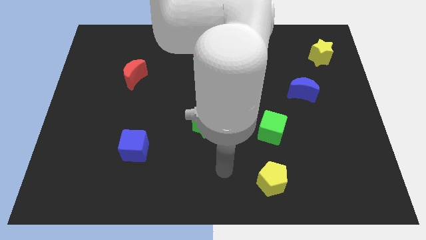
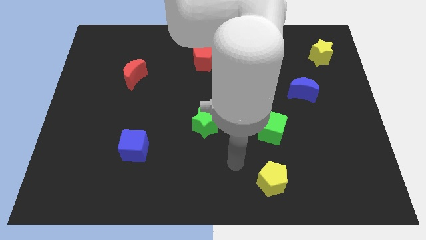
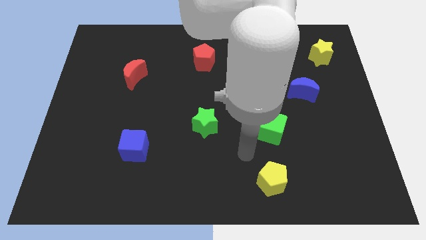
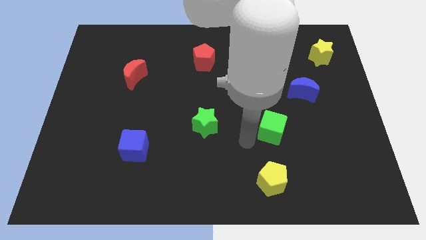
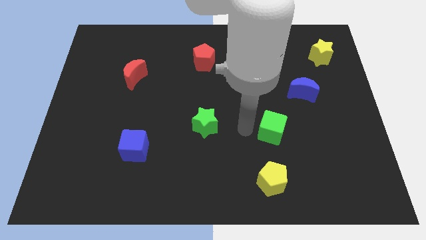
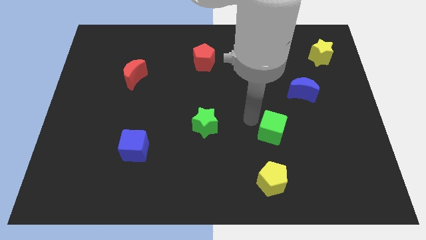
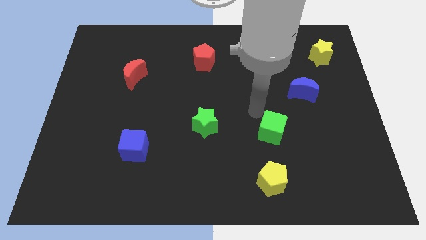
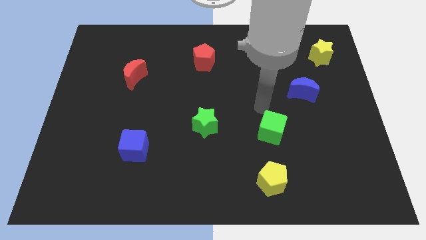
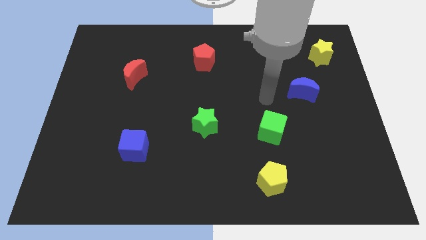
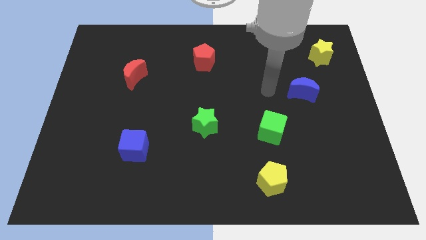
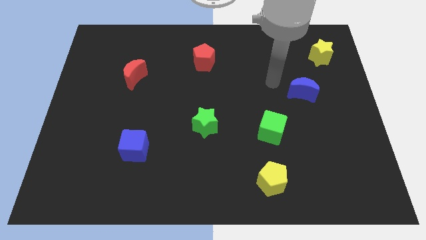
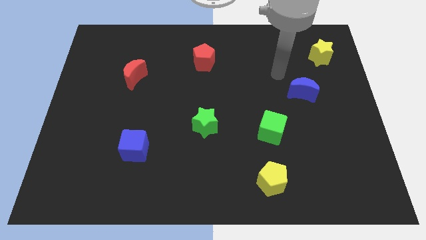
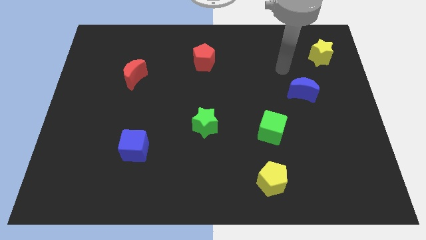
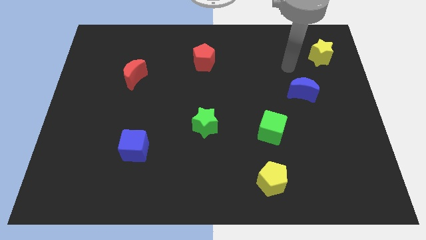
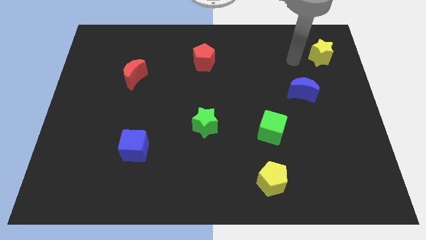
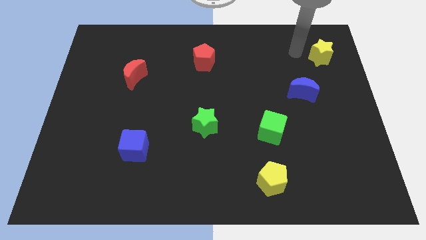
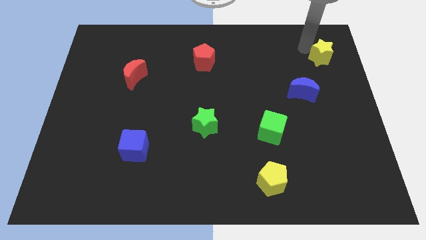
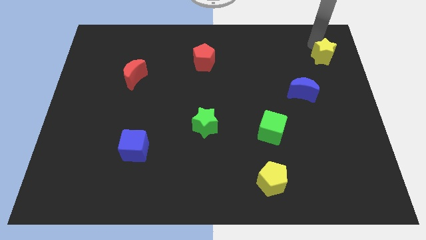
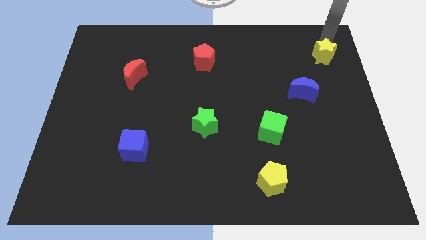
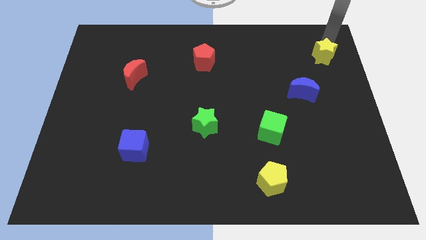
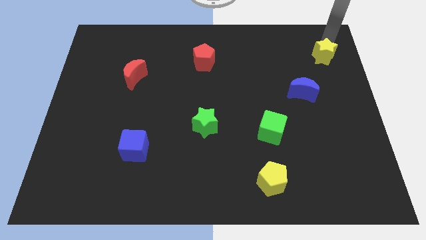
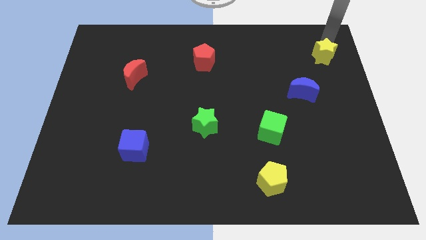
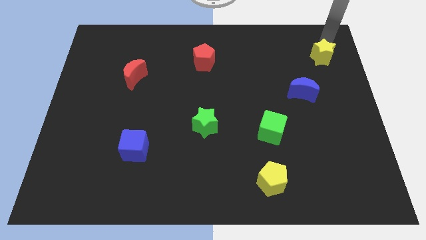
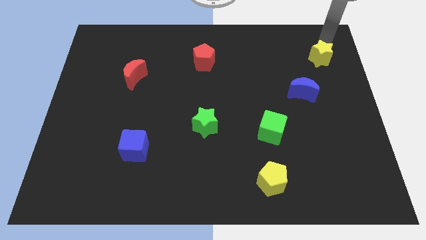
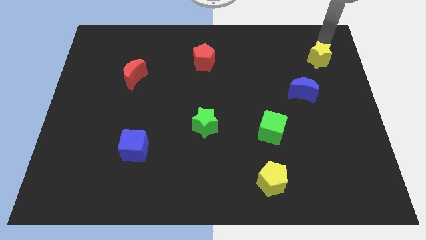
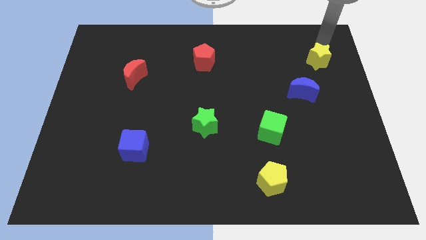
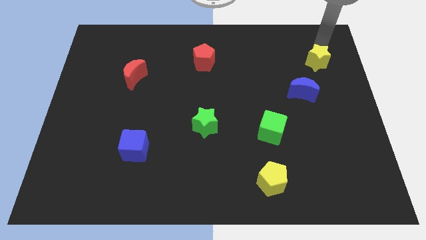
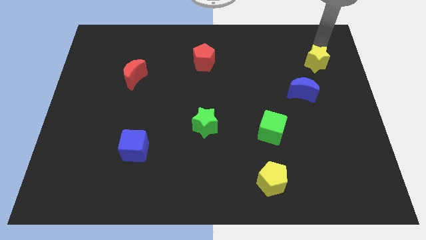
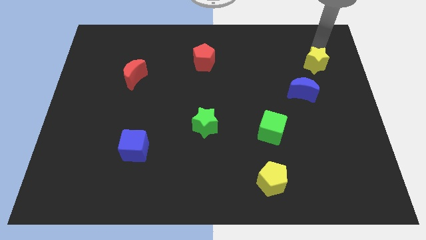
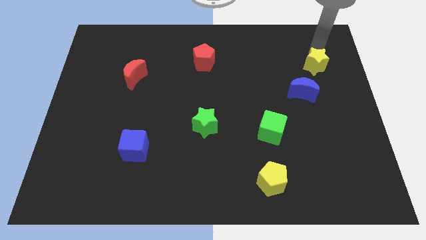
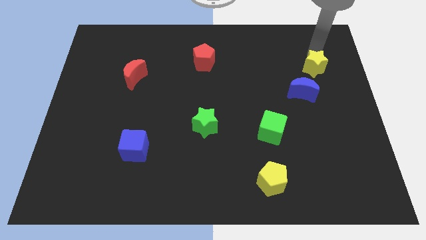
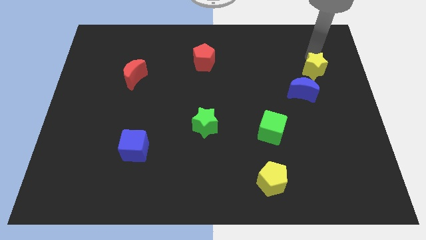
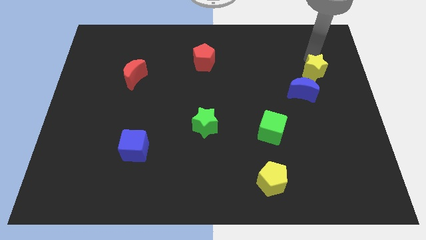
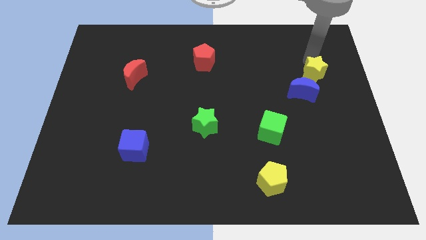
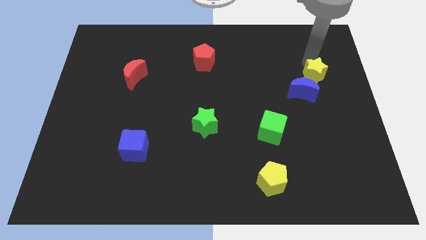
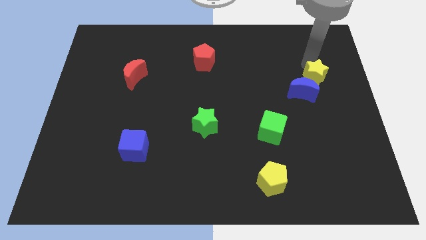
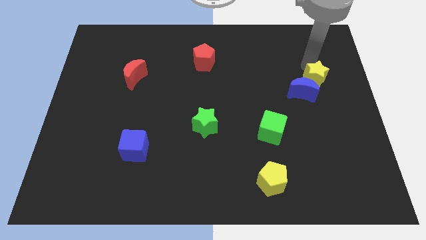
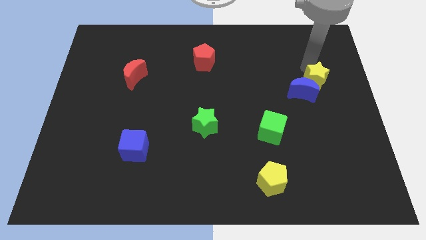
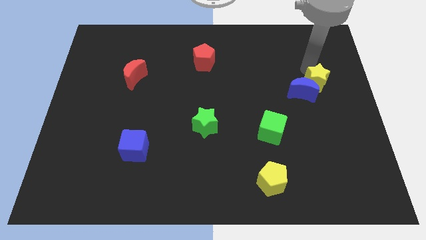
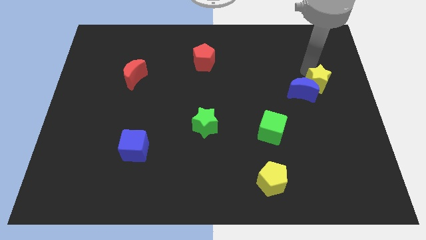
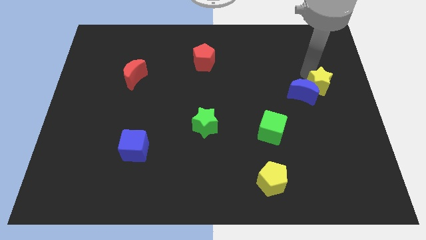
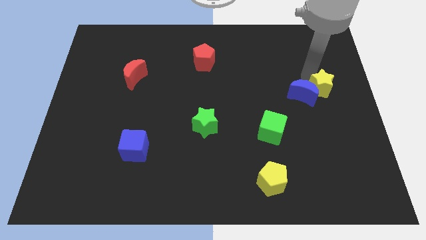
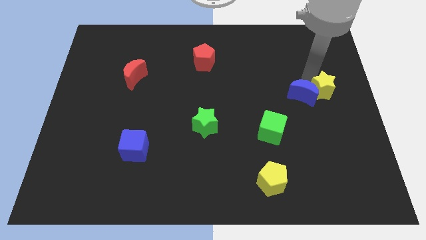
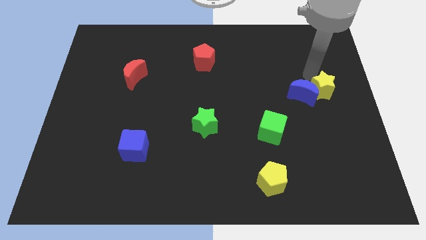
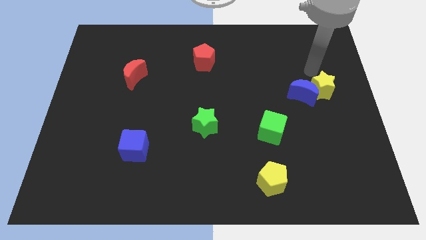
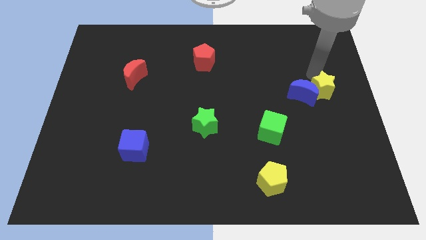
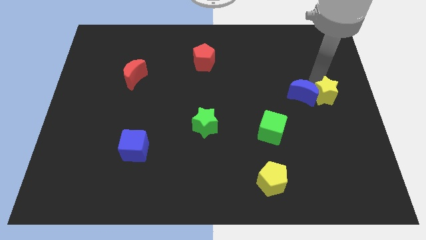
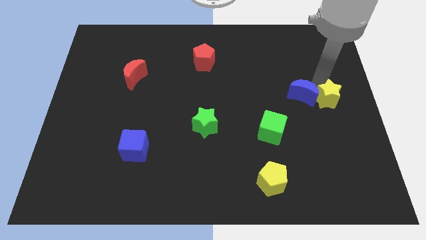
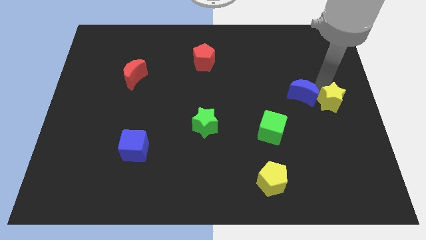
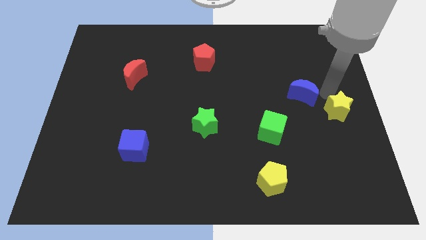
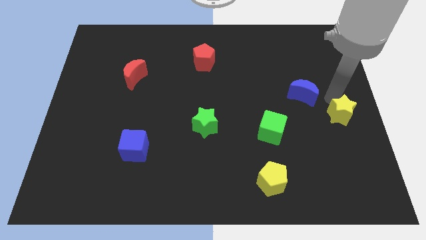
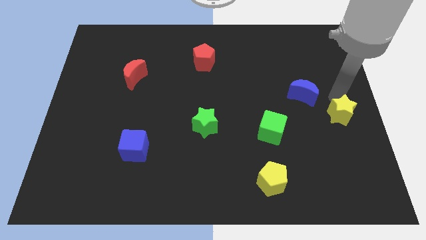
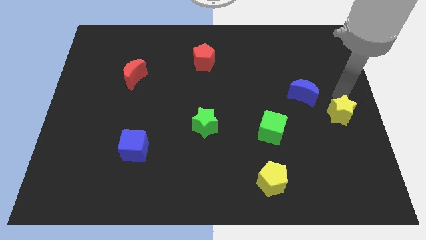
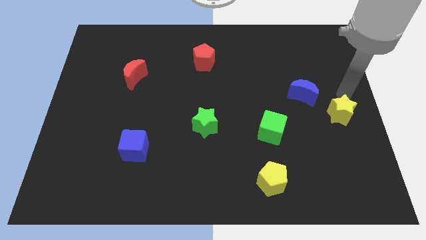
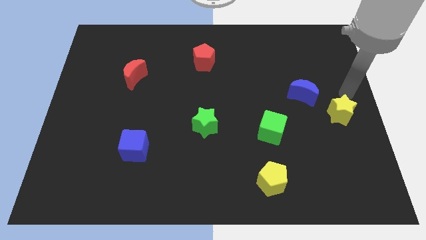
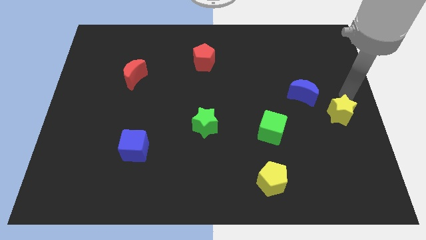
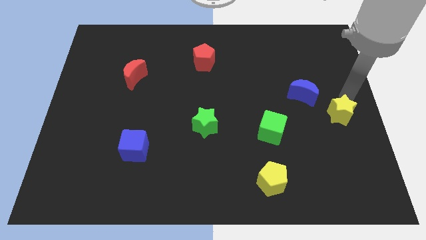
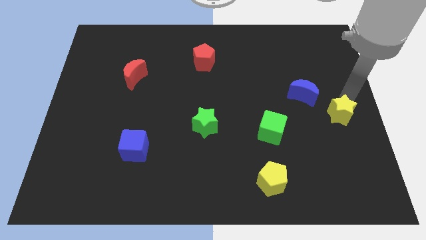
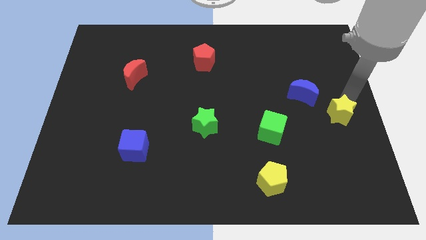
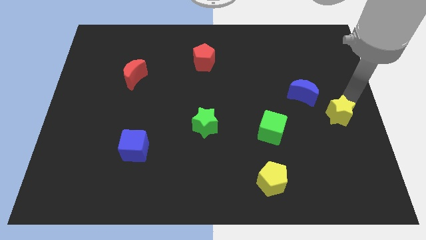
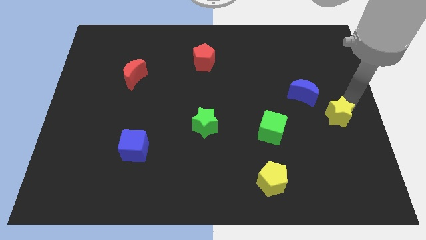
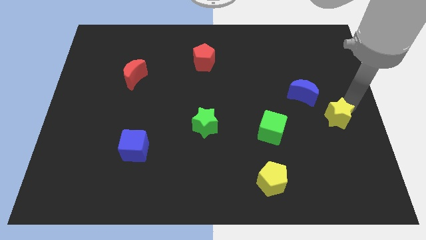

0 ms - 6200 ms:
move the yellow star down

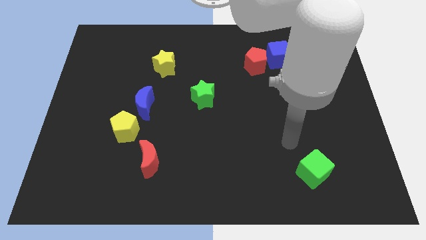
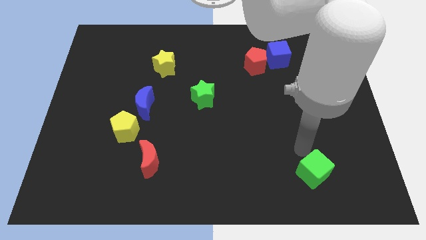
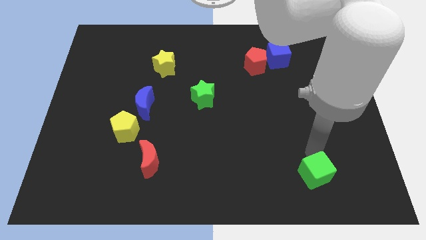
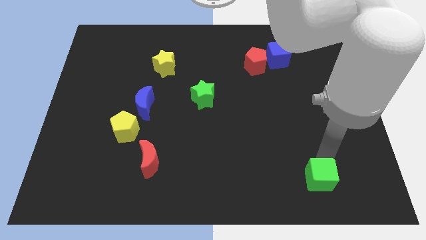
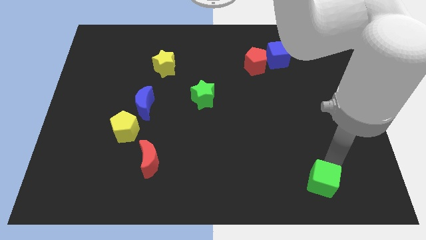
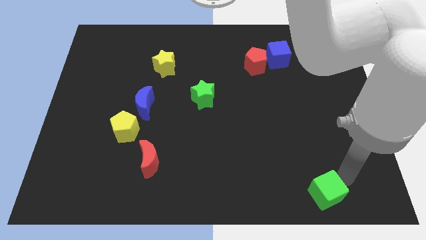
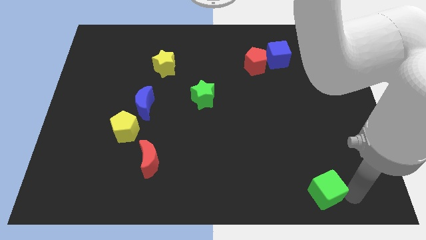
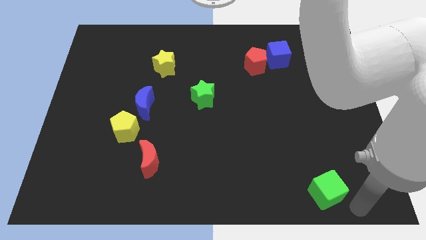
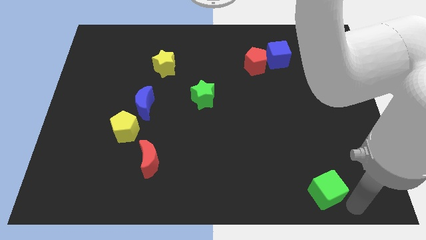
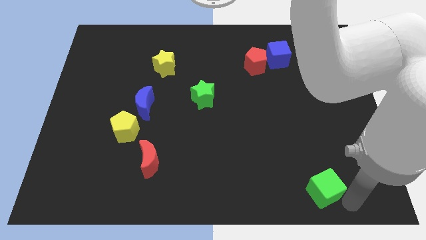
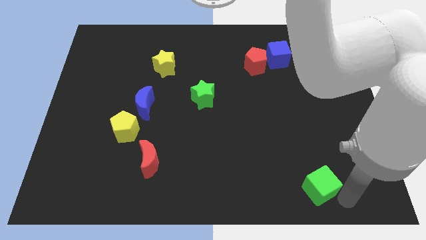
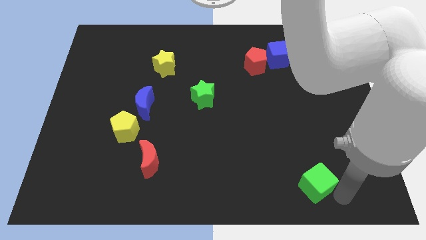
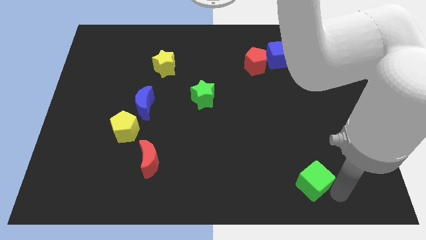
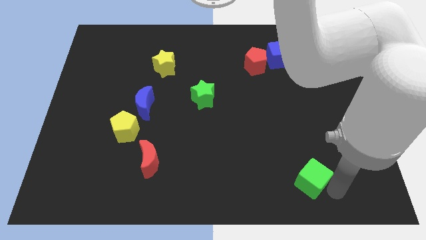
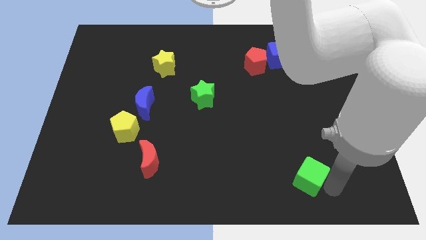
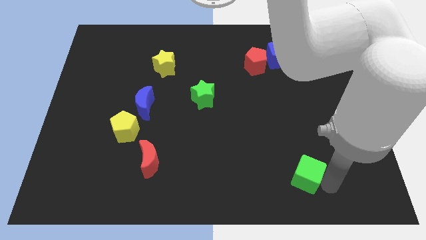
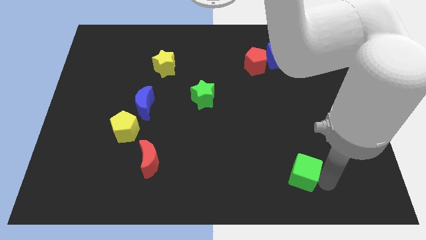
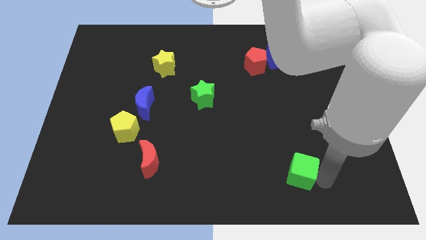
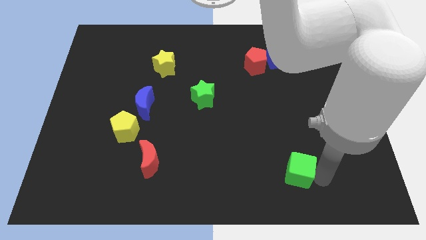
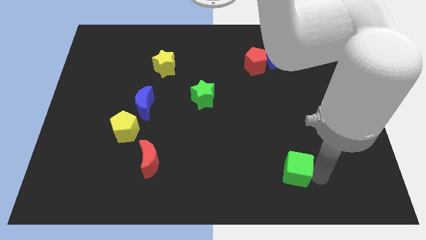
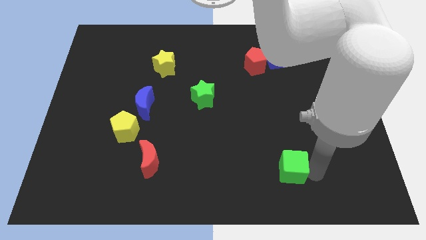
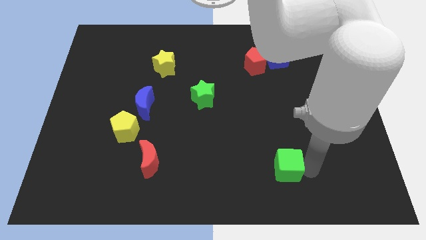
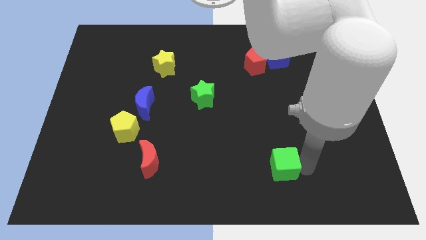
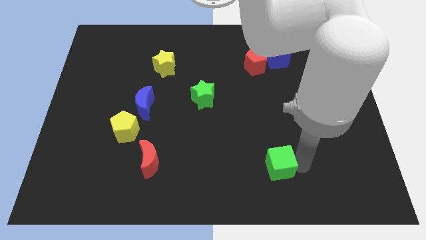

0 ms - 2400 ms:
push the green cube left somewhat
